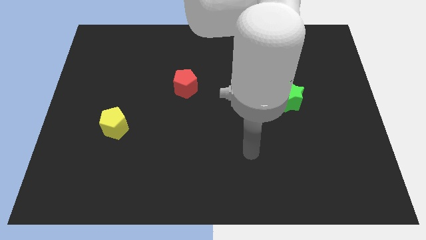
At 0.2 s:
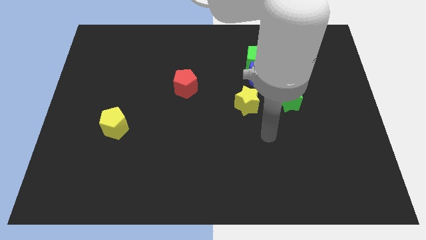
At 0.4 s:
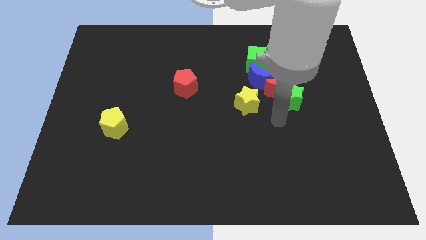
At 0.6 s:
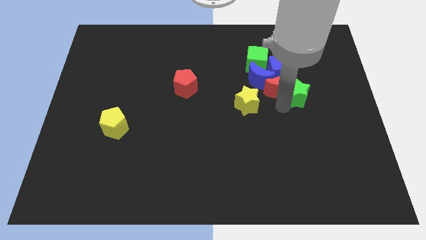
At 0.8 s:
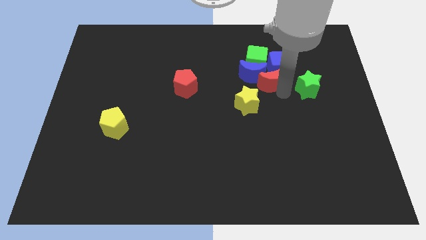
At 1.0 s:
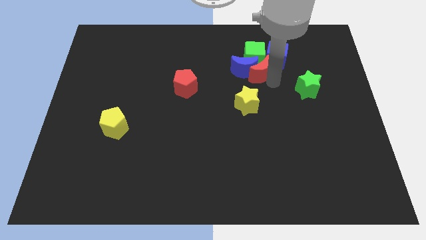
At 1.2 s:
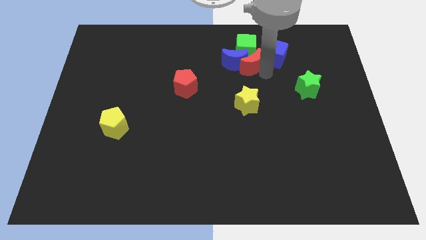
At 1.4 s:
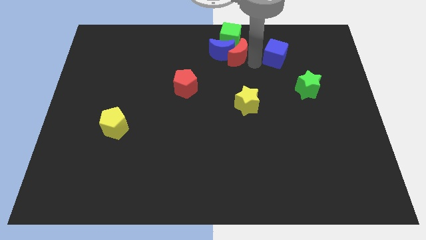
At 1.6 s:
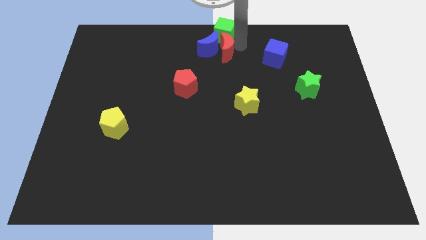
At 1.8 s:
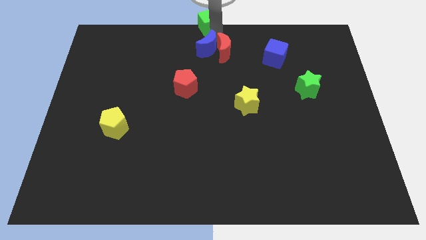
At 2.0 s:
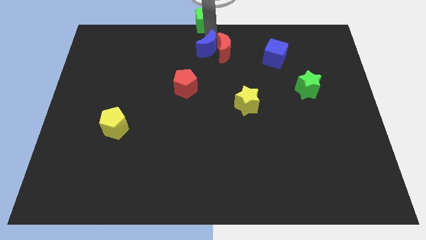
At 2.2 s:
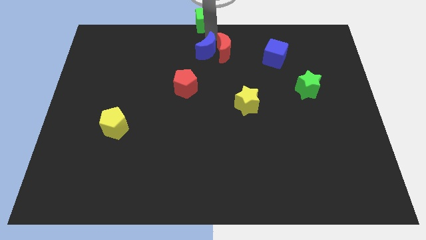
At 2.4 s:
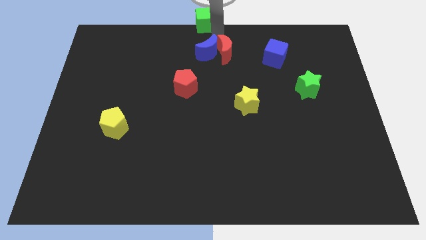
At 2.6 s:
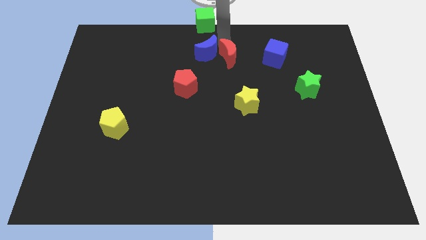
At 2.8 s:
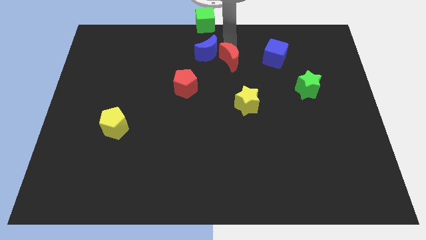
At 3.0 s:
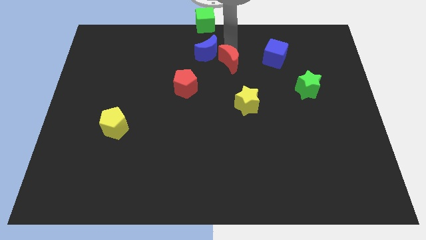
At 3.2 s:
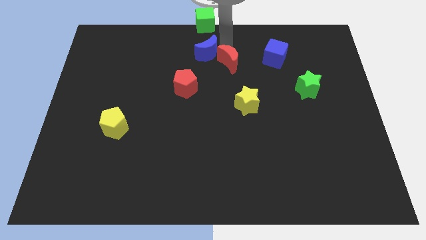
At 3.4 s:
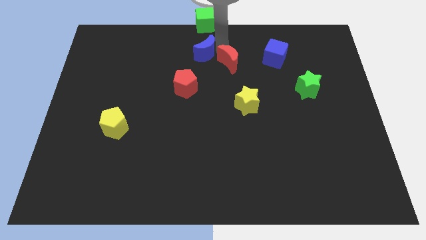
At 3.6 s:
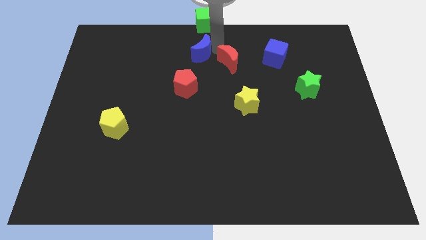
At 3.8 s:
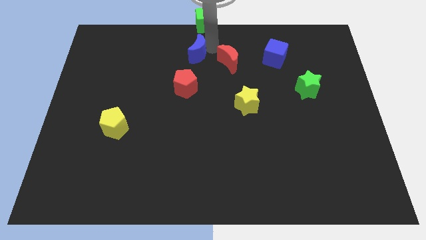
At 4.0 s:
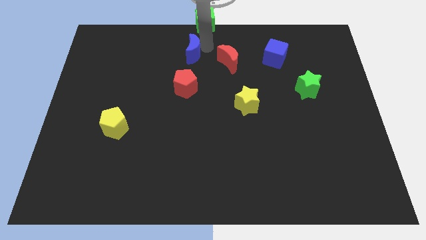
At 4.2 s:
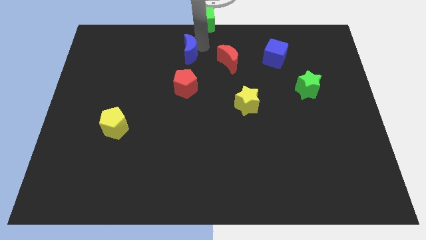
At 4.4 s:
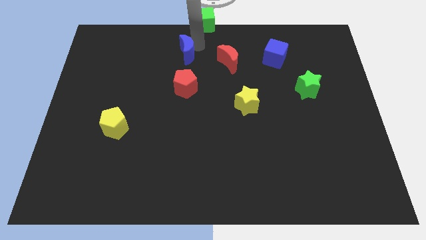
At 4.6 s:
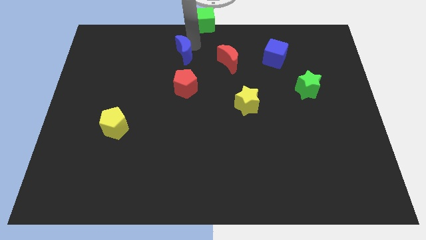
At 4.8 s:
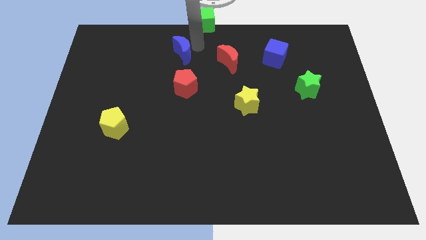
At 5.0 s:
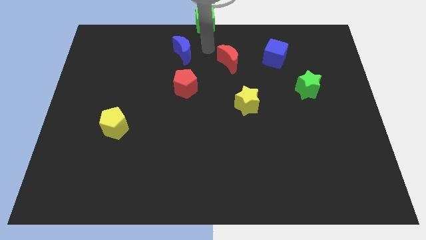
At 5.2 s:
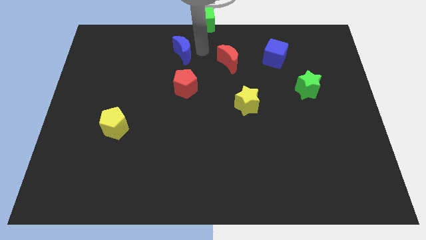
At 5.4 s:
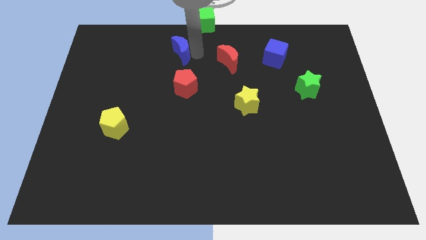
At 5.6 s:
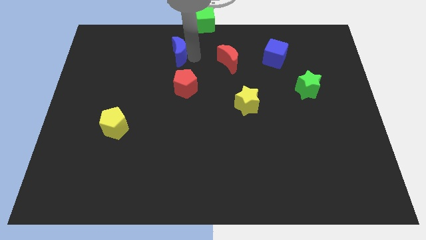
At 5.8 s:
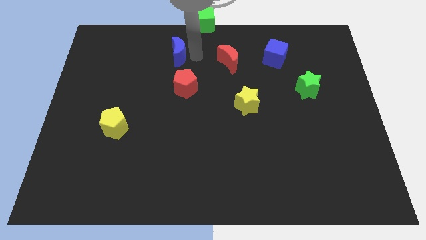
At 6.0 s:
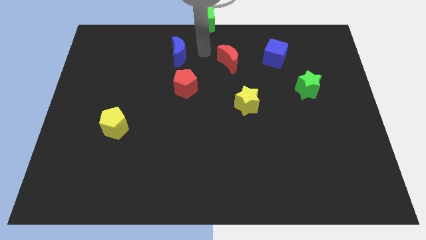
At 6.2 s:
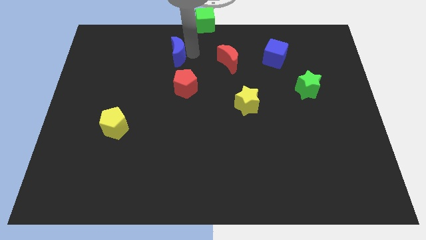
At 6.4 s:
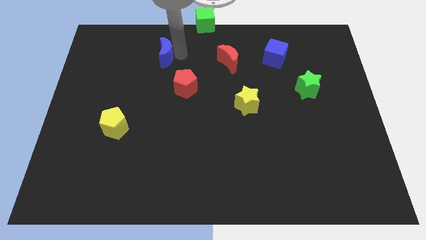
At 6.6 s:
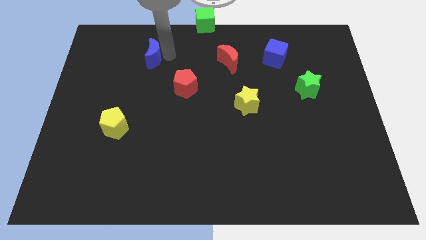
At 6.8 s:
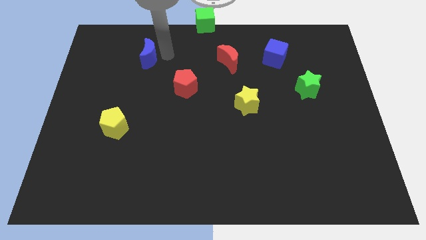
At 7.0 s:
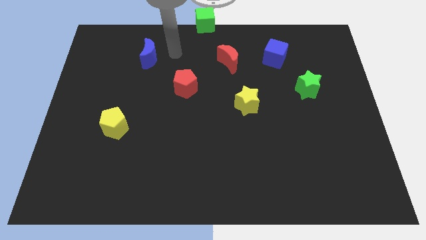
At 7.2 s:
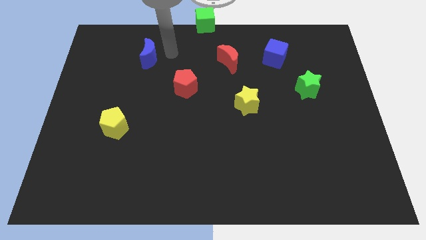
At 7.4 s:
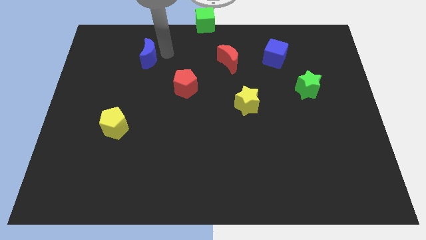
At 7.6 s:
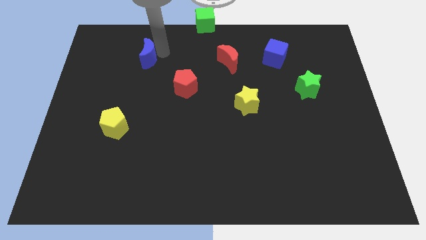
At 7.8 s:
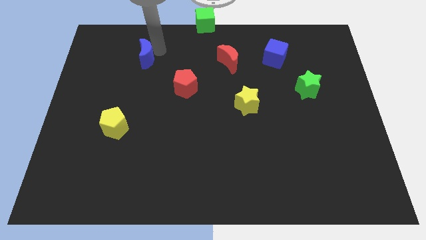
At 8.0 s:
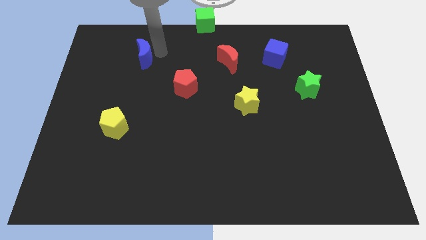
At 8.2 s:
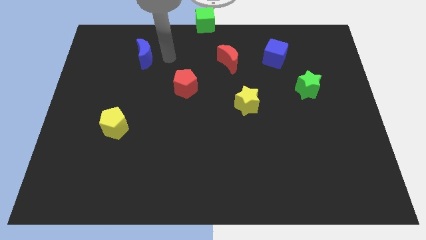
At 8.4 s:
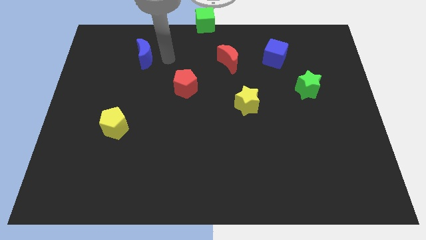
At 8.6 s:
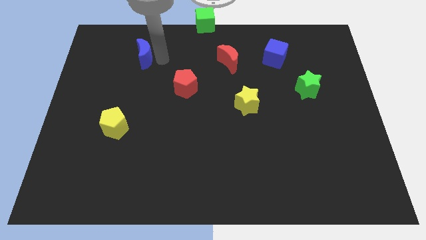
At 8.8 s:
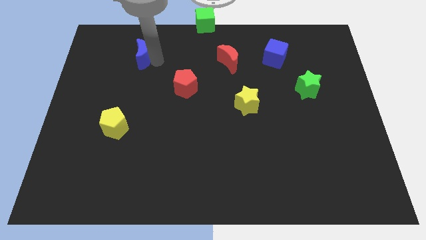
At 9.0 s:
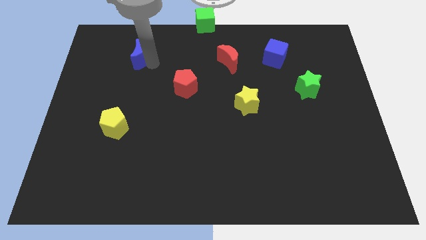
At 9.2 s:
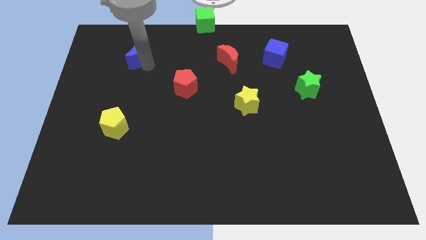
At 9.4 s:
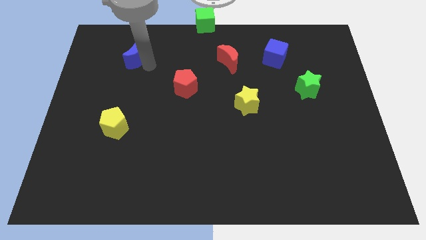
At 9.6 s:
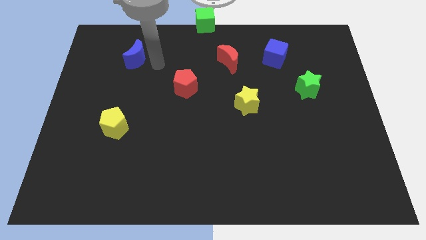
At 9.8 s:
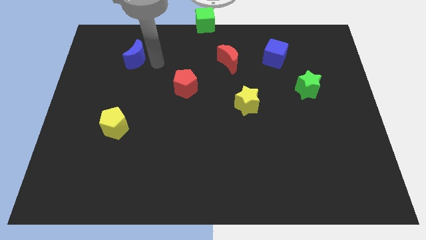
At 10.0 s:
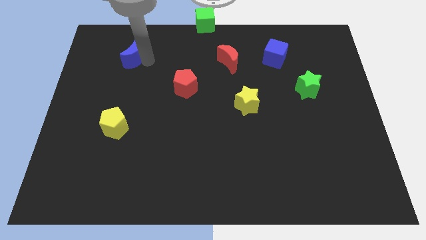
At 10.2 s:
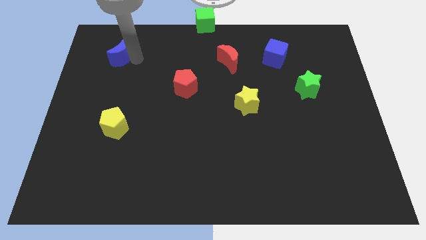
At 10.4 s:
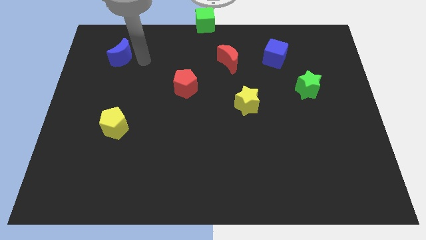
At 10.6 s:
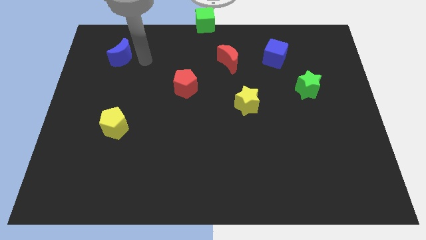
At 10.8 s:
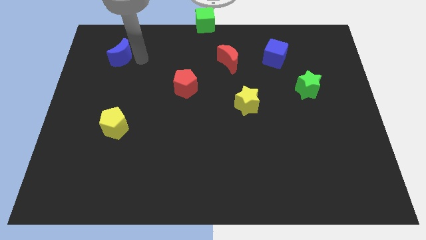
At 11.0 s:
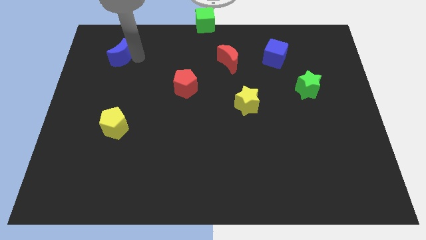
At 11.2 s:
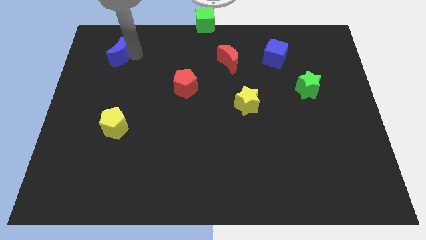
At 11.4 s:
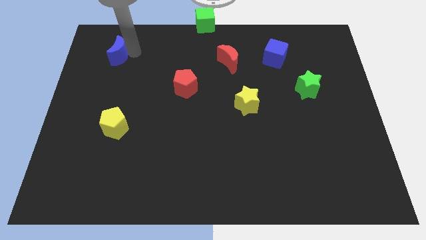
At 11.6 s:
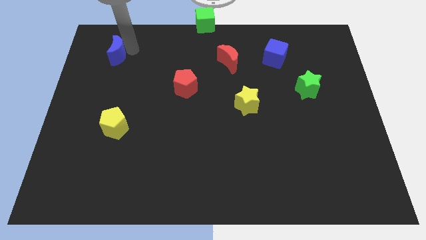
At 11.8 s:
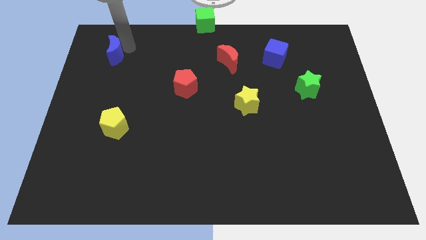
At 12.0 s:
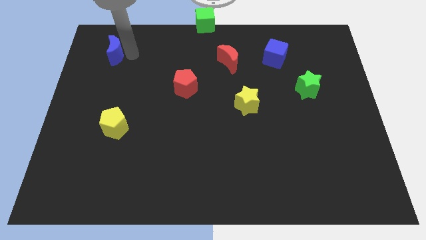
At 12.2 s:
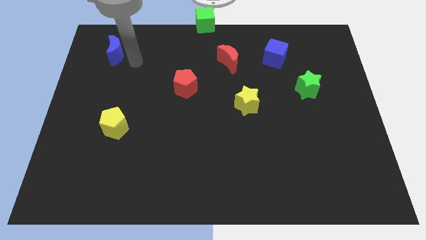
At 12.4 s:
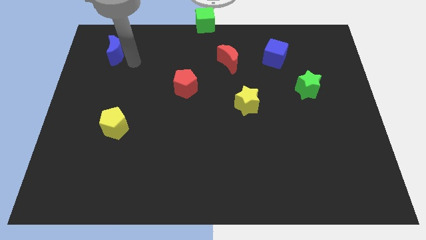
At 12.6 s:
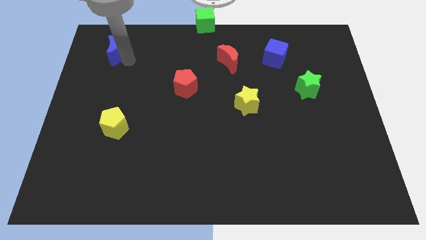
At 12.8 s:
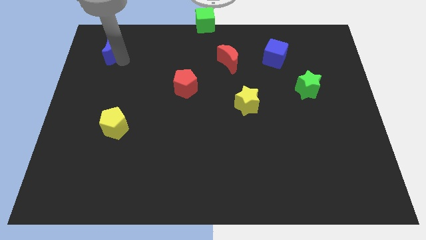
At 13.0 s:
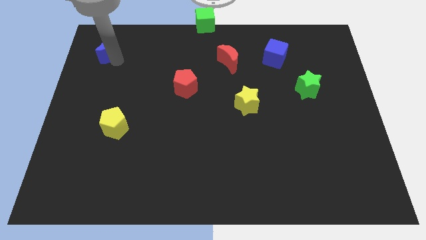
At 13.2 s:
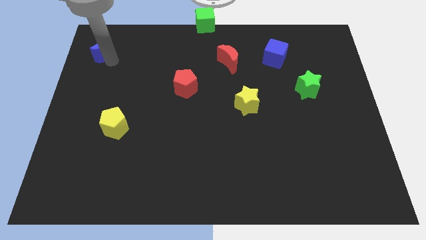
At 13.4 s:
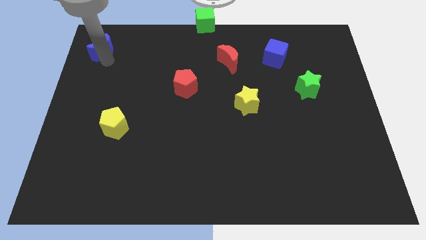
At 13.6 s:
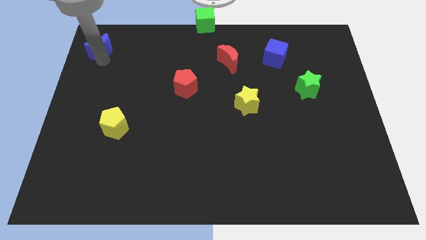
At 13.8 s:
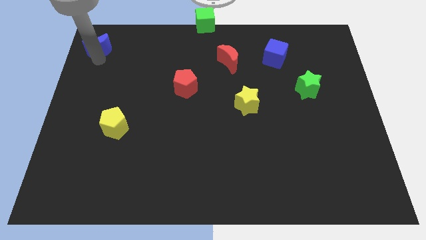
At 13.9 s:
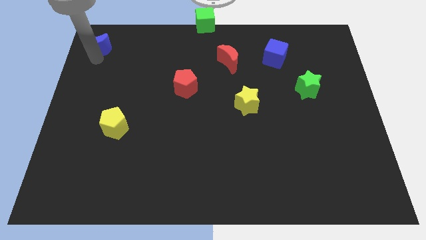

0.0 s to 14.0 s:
push the blue moon to the top left corner
